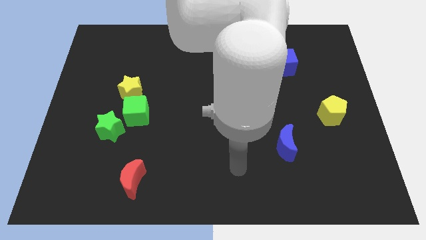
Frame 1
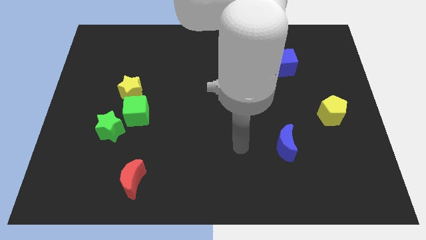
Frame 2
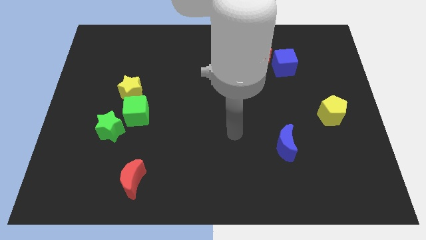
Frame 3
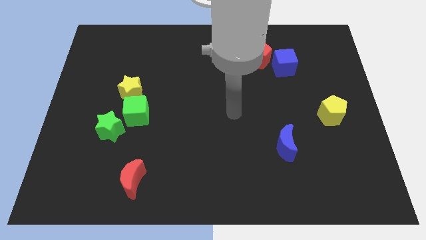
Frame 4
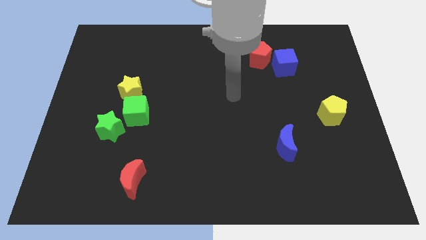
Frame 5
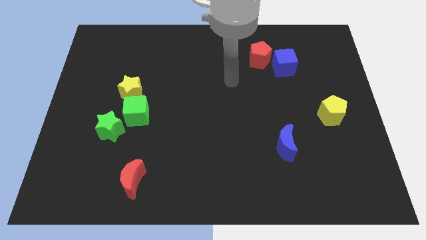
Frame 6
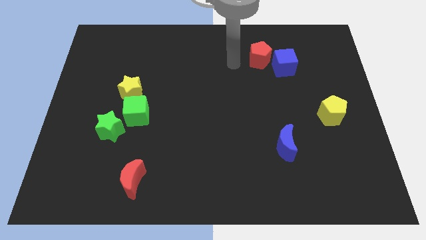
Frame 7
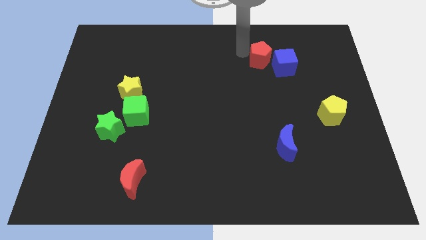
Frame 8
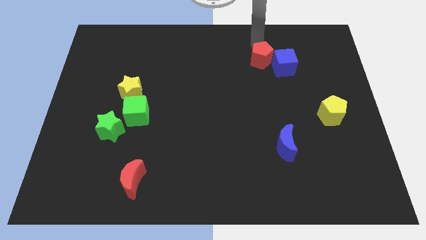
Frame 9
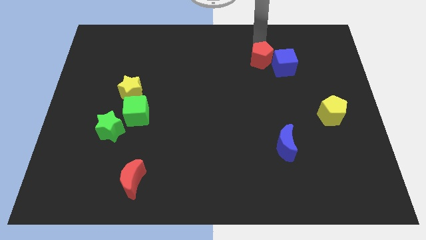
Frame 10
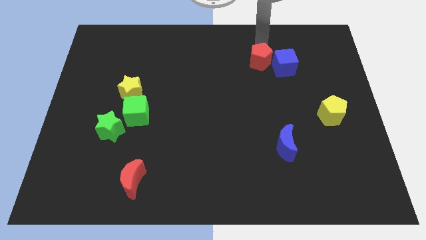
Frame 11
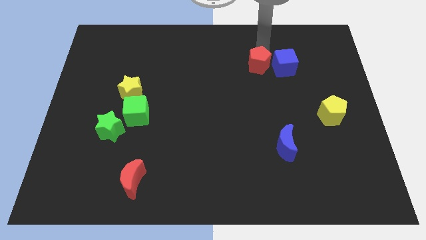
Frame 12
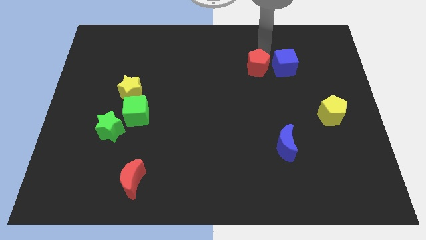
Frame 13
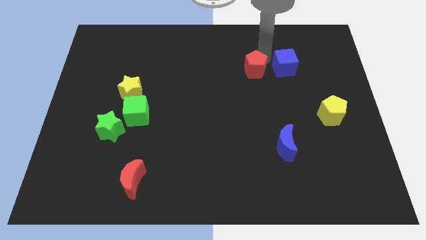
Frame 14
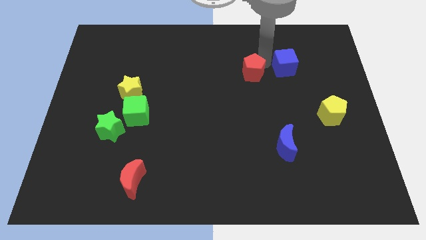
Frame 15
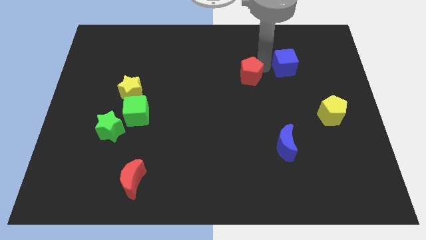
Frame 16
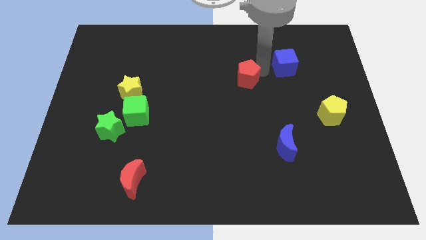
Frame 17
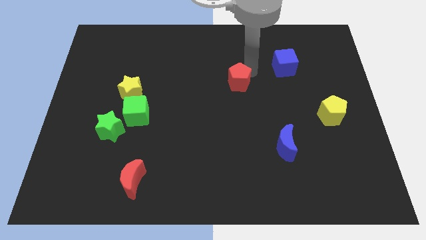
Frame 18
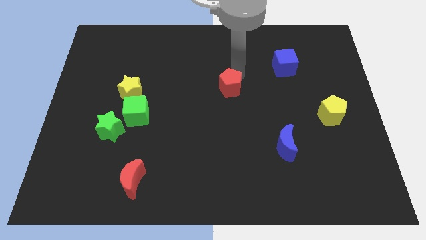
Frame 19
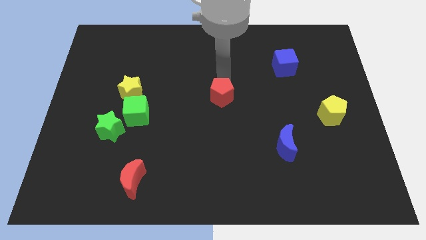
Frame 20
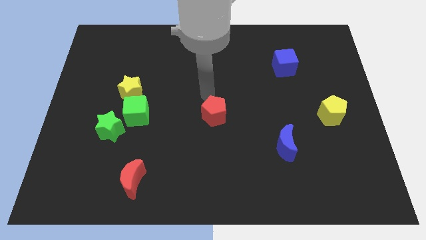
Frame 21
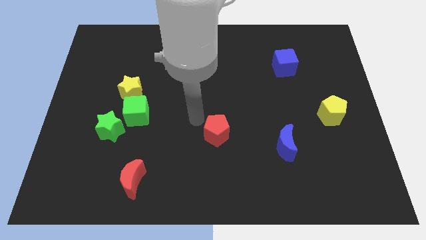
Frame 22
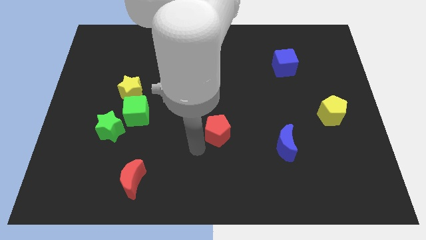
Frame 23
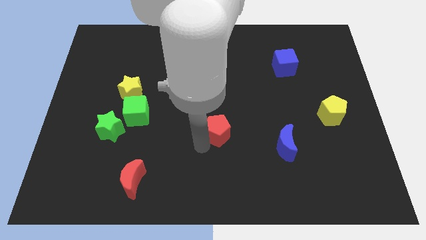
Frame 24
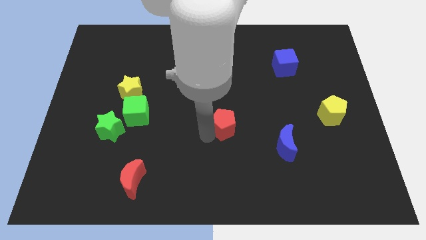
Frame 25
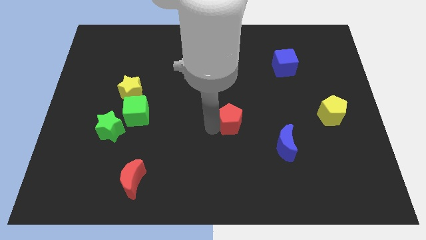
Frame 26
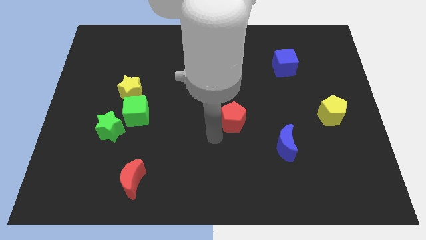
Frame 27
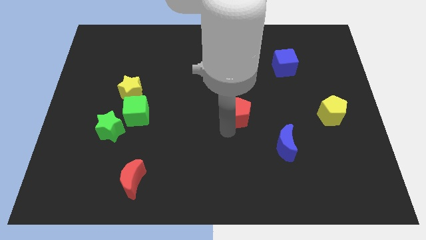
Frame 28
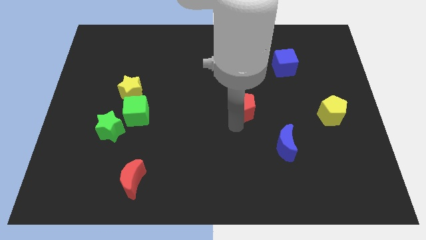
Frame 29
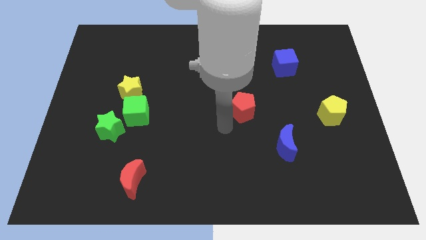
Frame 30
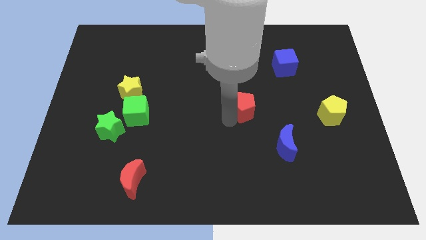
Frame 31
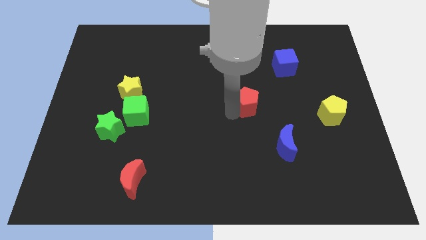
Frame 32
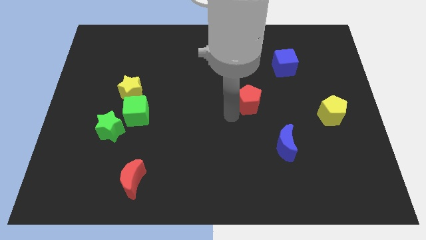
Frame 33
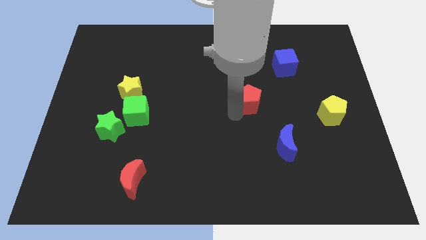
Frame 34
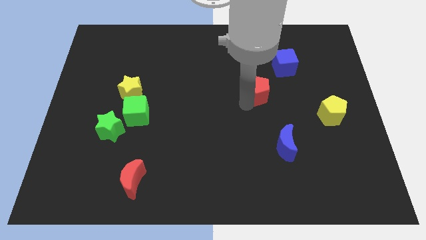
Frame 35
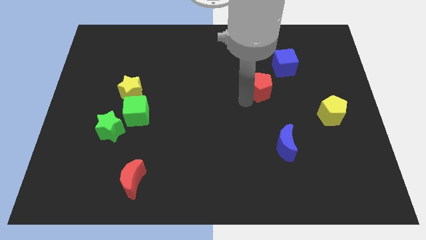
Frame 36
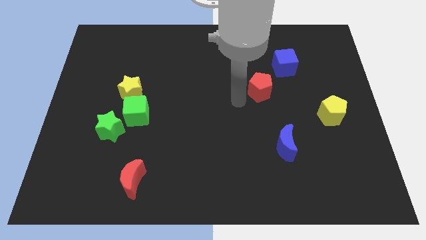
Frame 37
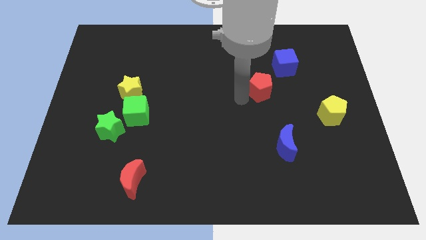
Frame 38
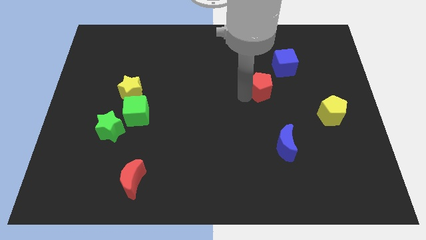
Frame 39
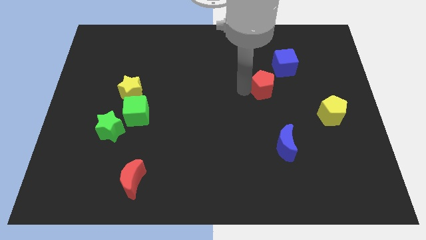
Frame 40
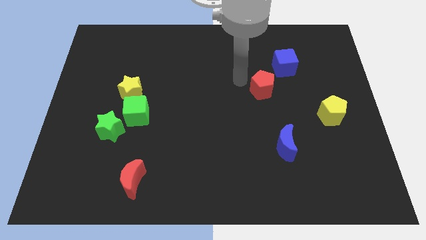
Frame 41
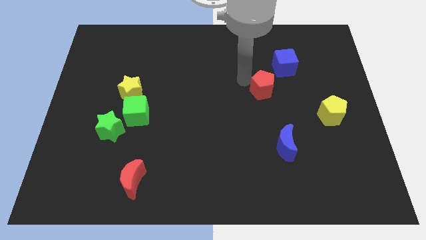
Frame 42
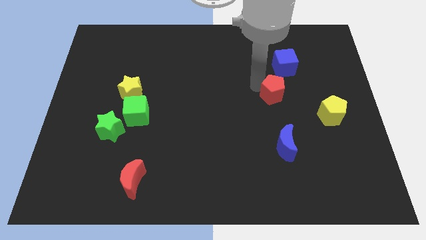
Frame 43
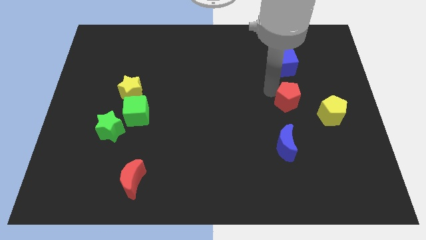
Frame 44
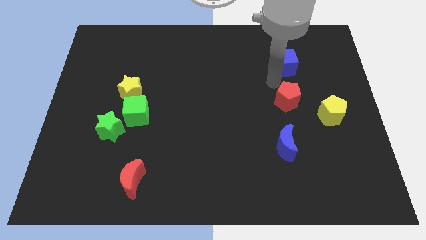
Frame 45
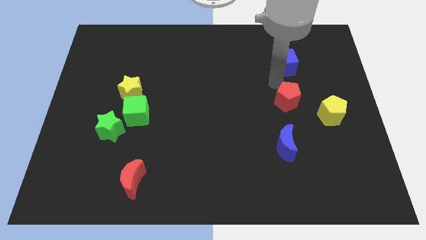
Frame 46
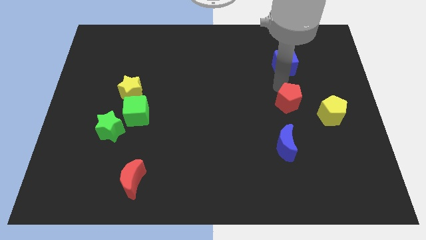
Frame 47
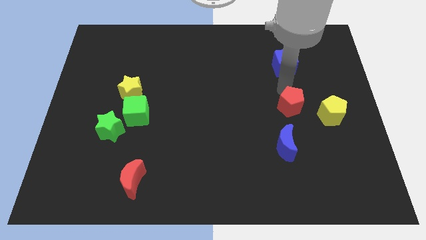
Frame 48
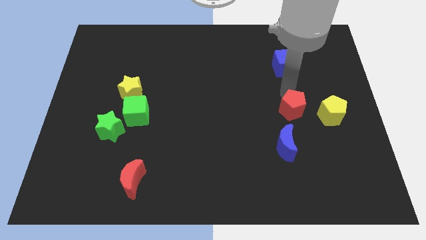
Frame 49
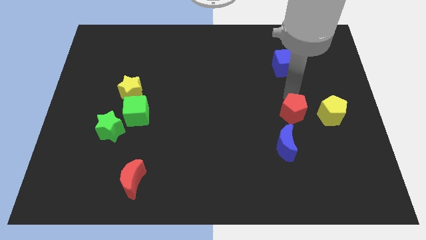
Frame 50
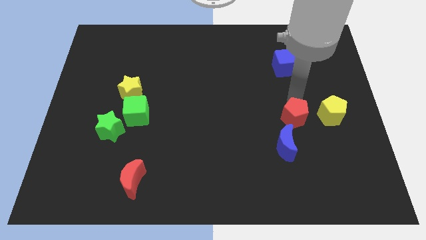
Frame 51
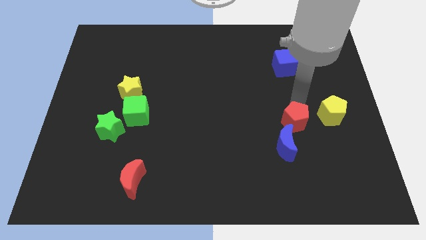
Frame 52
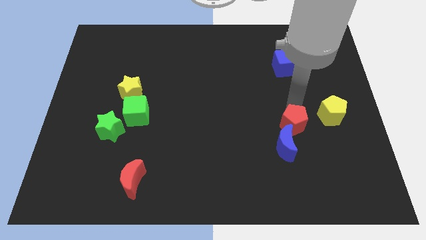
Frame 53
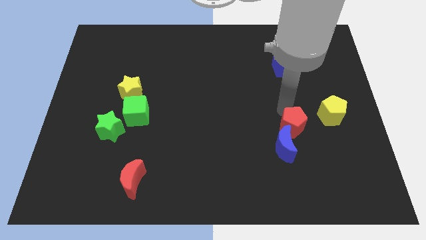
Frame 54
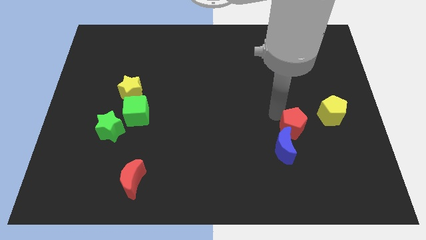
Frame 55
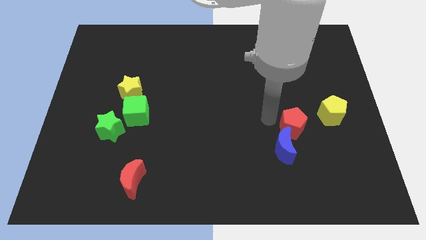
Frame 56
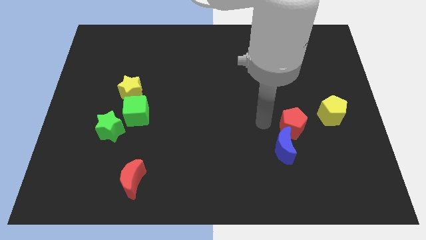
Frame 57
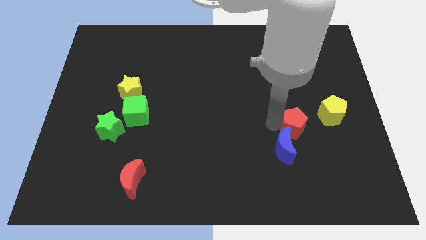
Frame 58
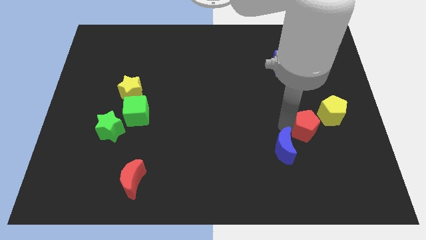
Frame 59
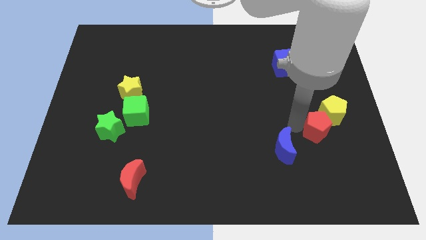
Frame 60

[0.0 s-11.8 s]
slide the red pentagon to the bottom side of the yellow pentagon

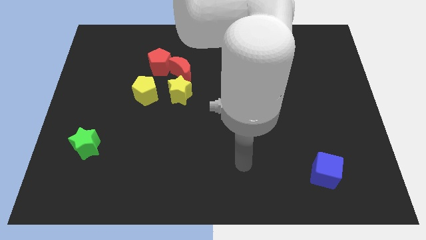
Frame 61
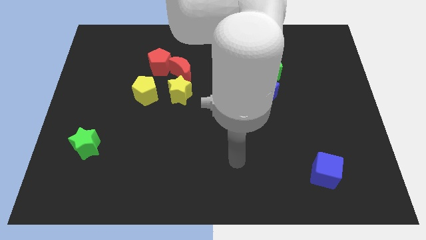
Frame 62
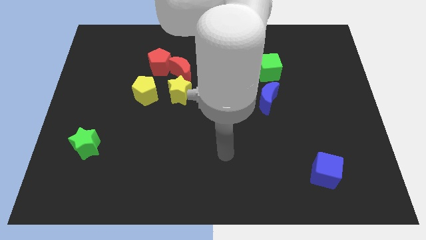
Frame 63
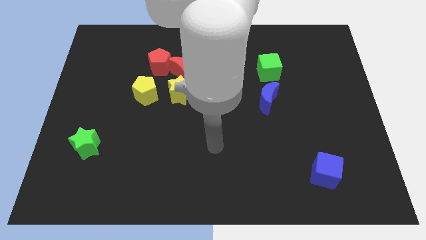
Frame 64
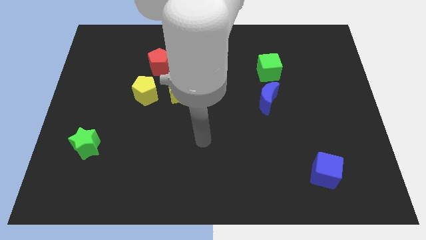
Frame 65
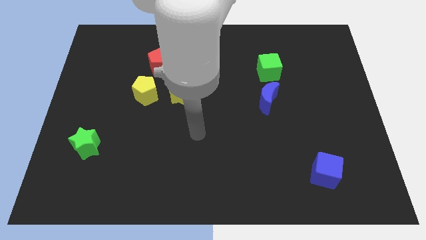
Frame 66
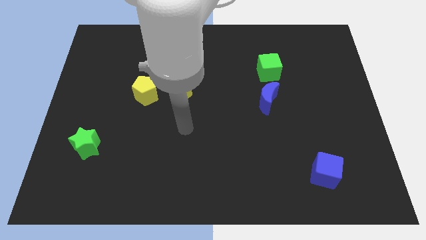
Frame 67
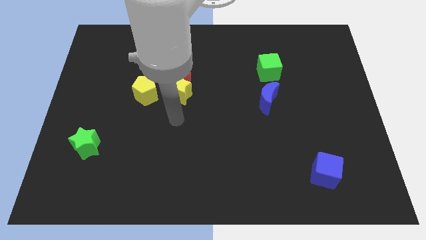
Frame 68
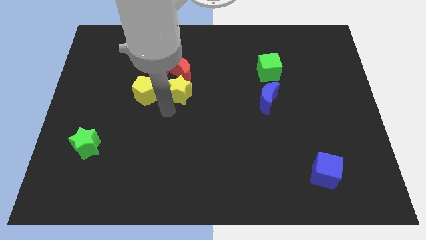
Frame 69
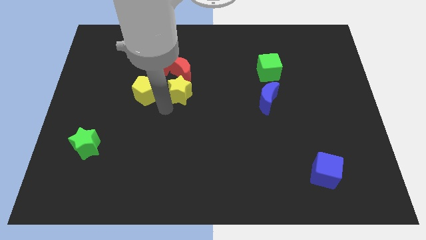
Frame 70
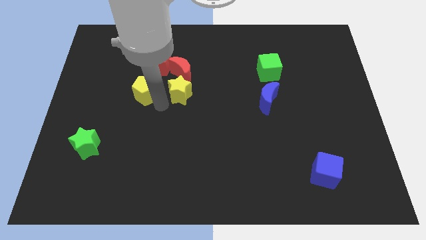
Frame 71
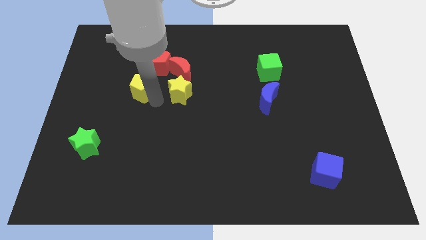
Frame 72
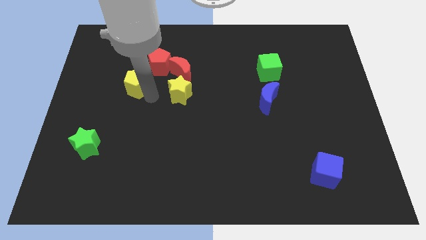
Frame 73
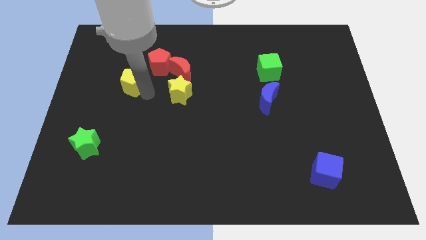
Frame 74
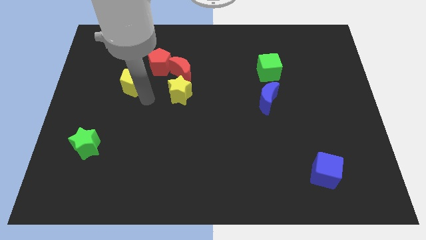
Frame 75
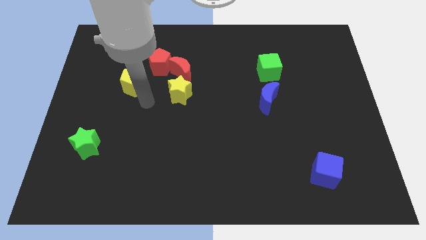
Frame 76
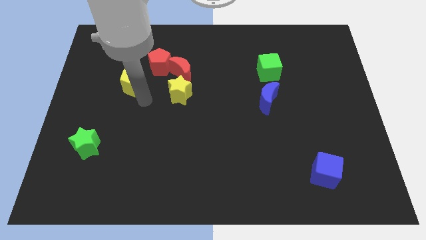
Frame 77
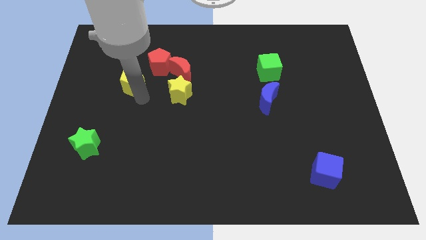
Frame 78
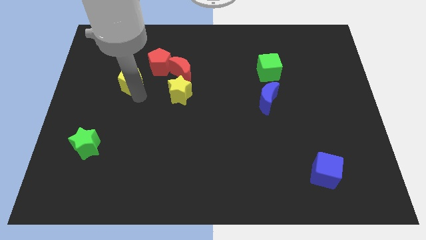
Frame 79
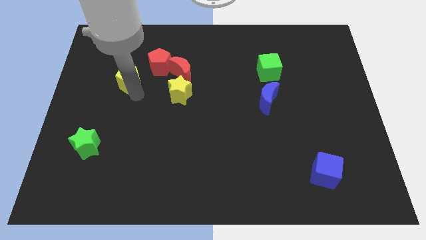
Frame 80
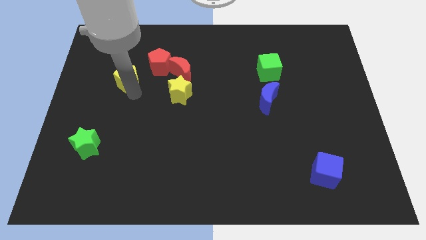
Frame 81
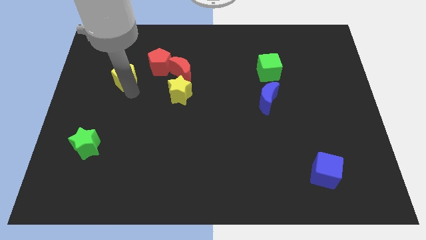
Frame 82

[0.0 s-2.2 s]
move the yellow pentagon to the left side of the red pentagon
